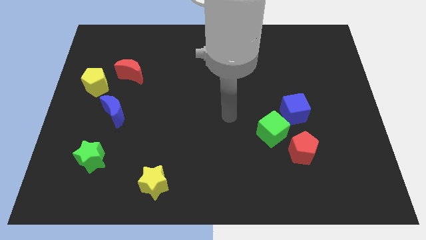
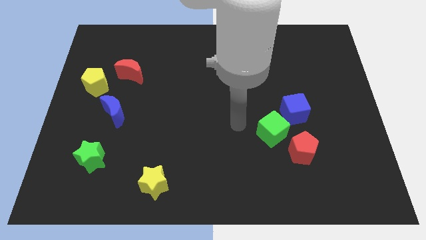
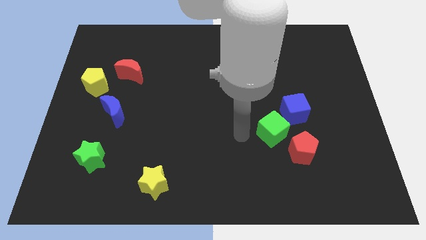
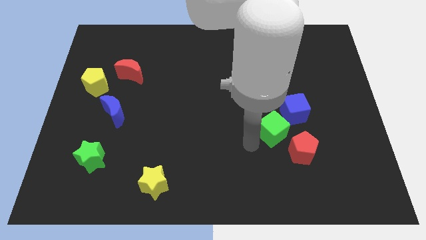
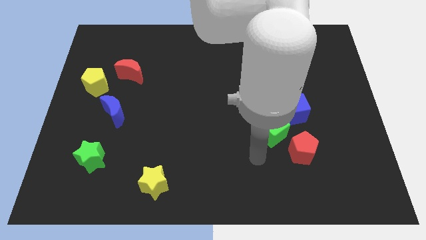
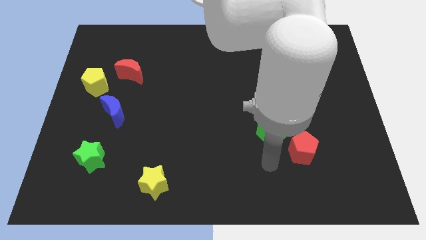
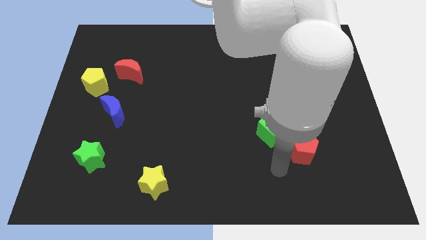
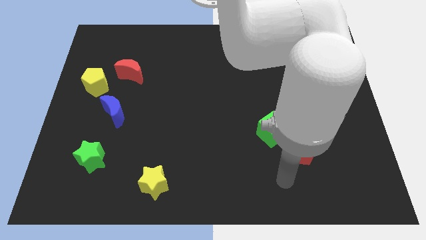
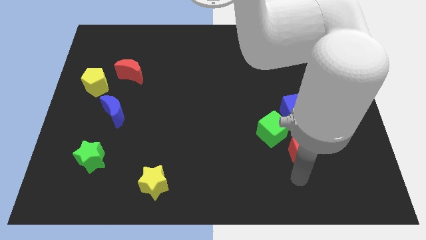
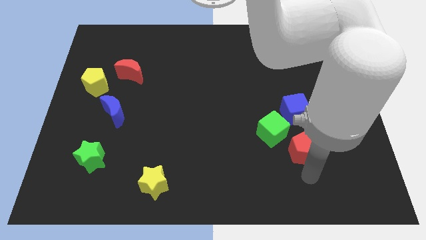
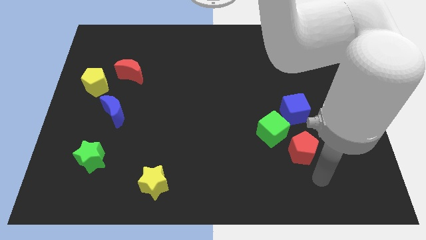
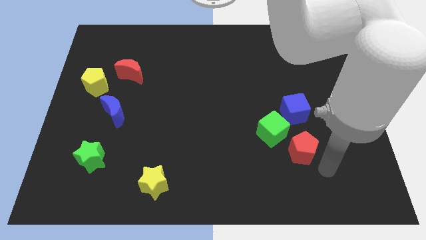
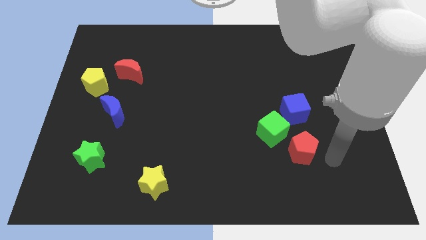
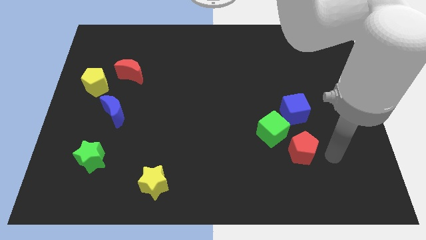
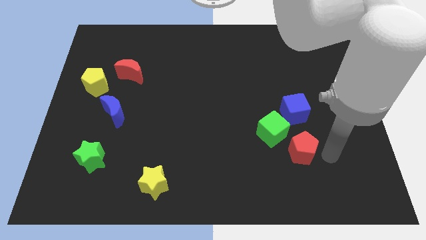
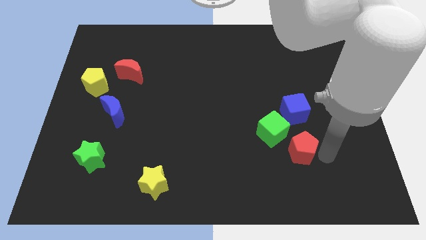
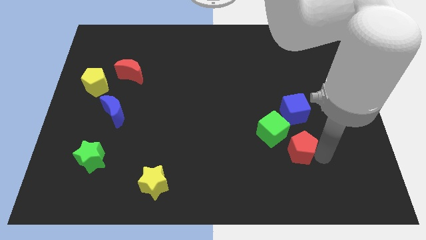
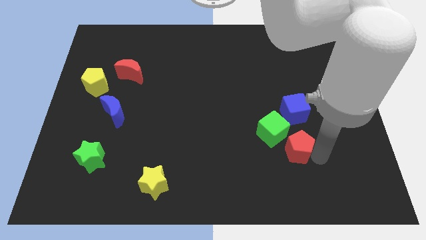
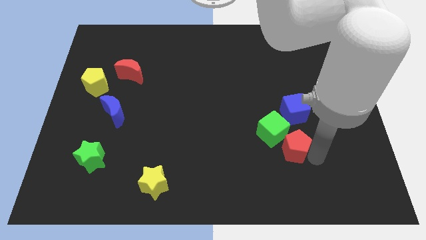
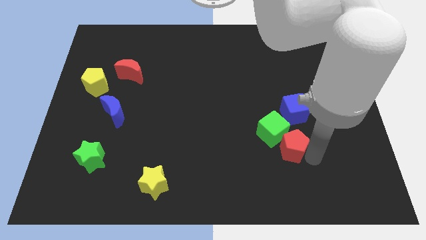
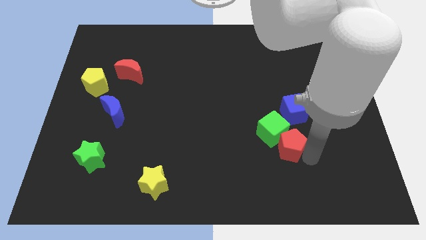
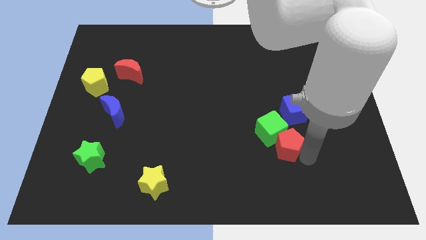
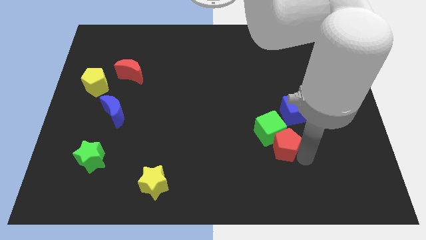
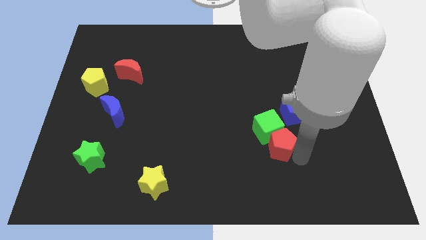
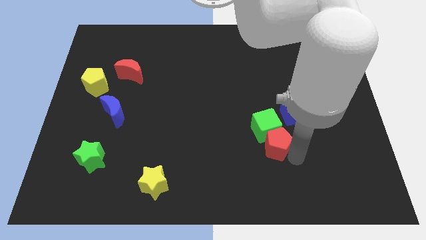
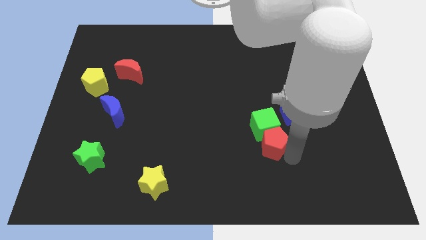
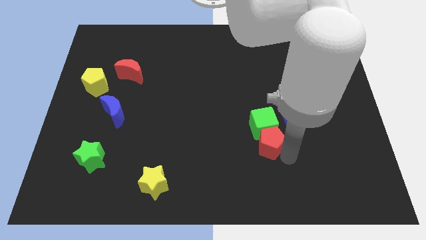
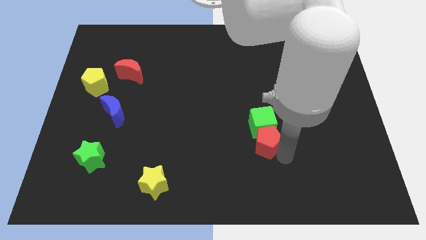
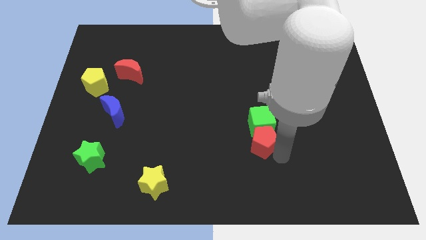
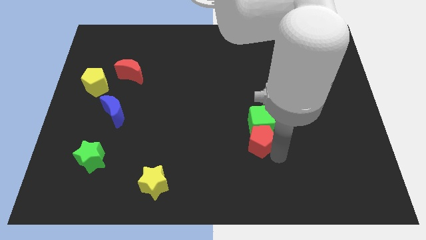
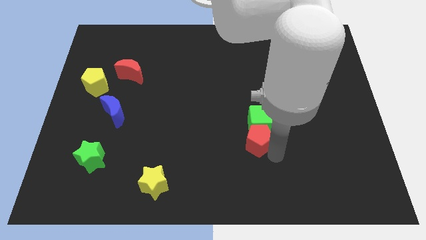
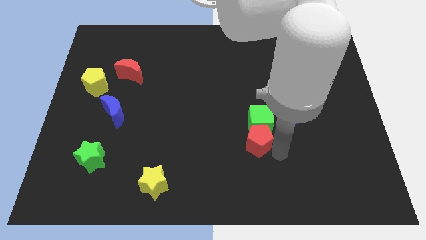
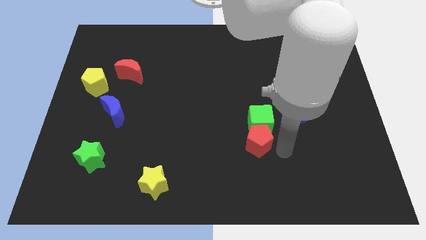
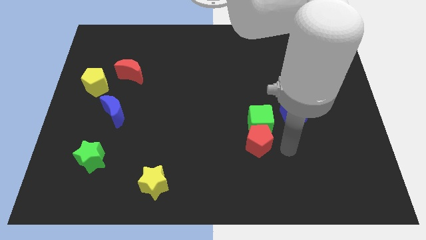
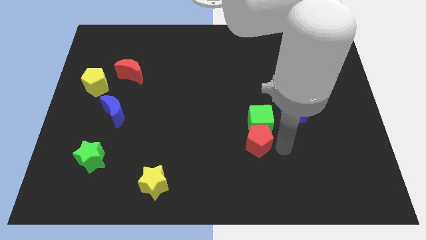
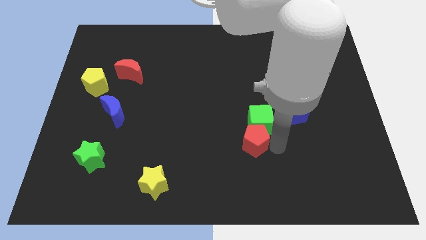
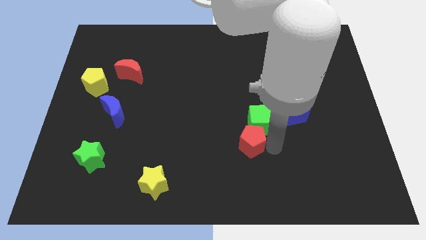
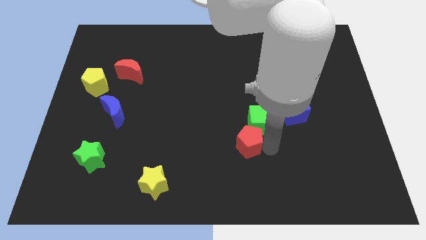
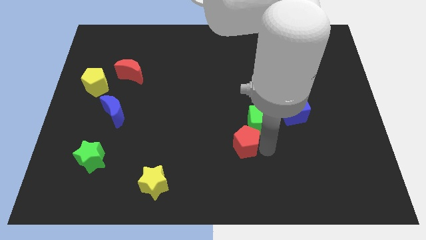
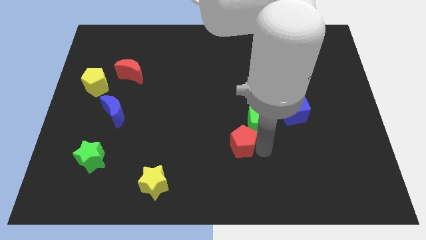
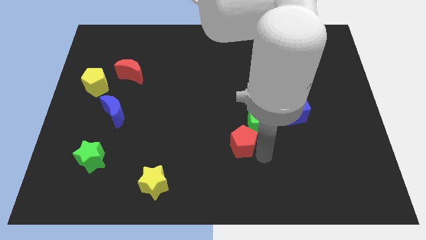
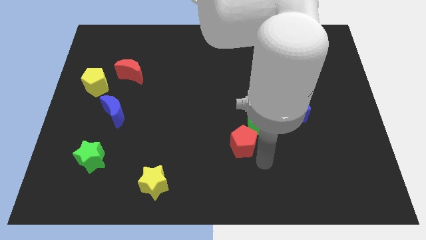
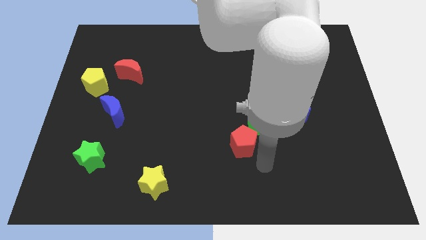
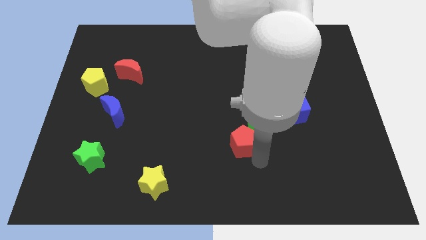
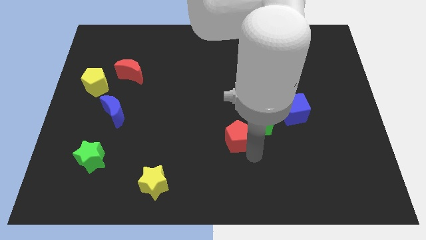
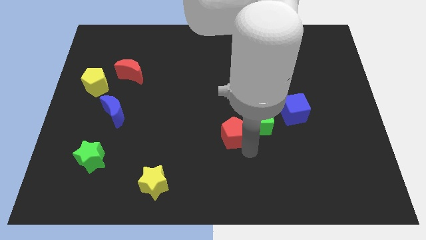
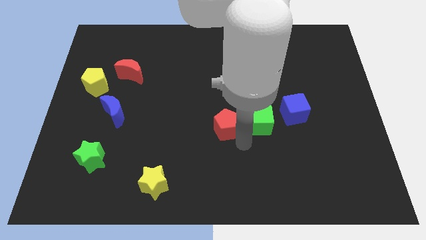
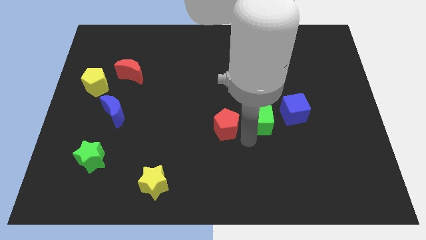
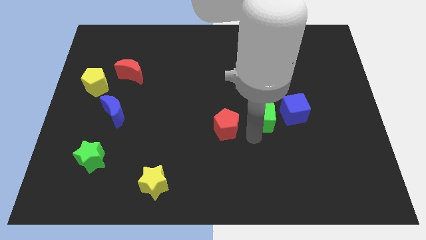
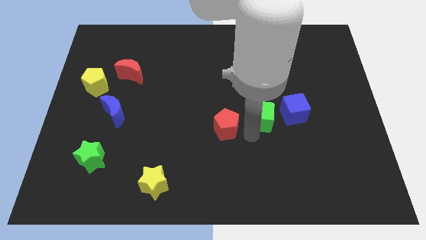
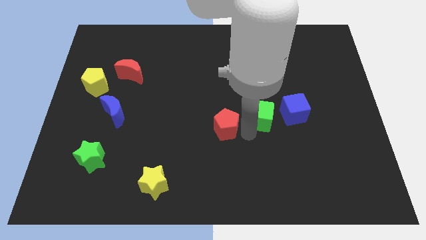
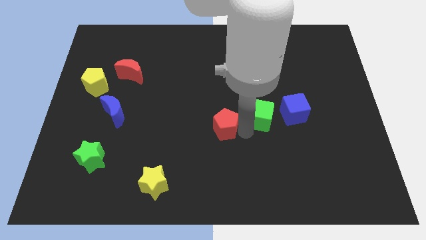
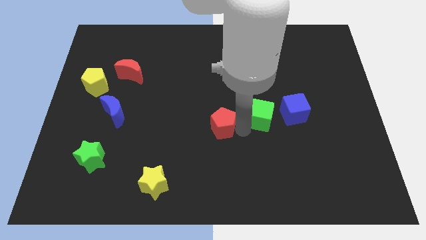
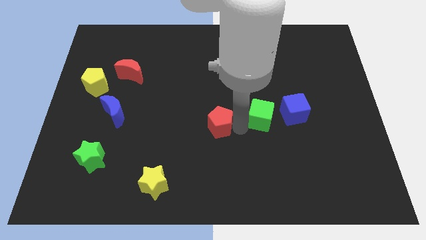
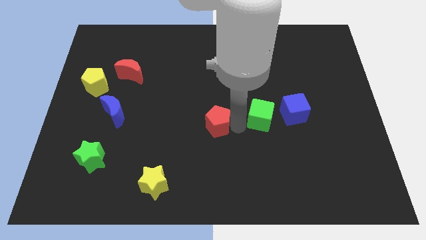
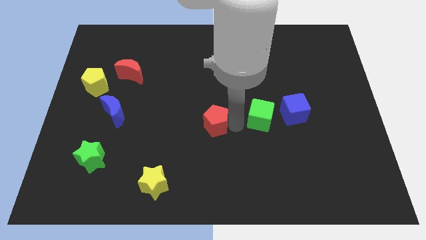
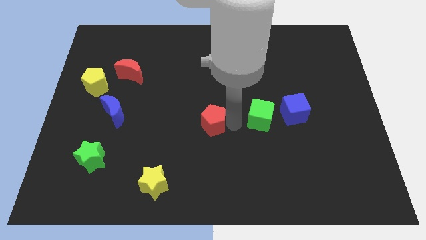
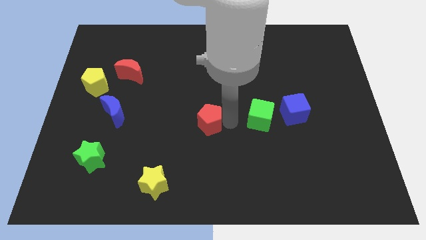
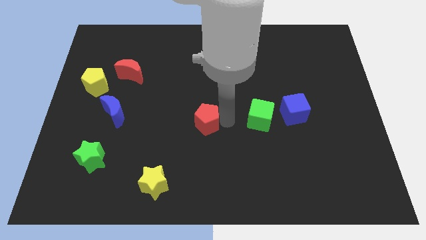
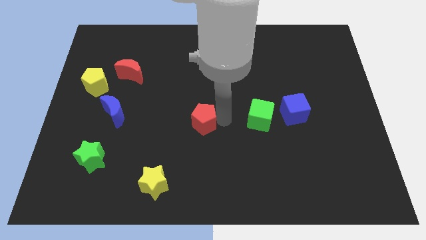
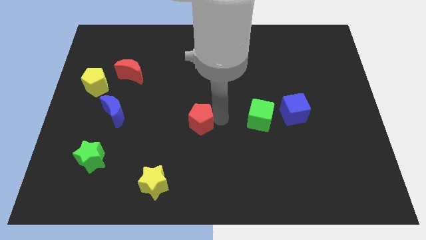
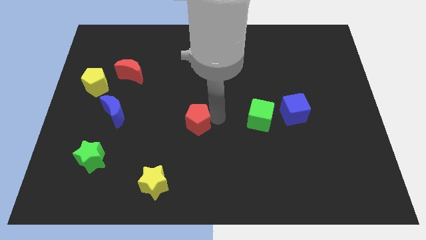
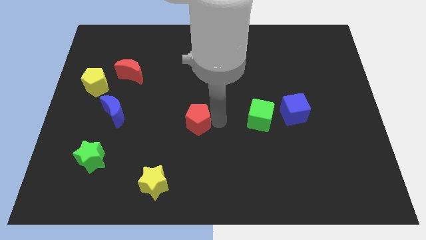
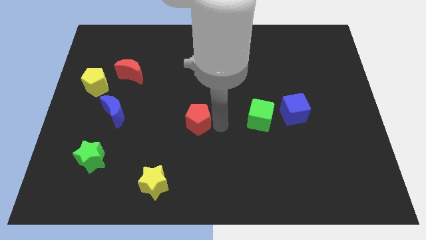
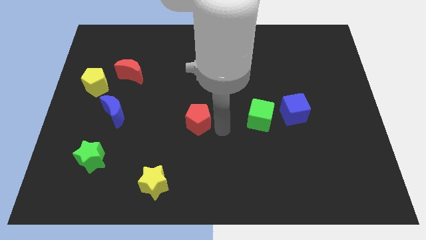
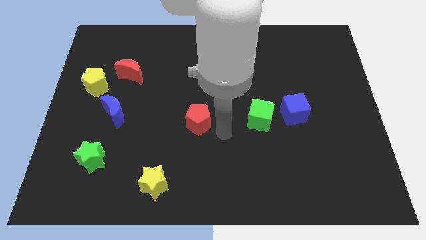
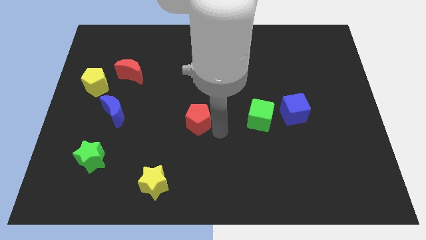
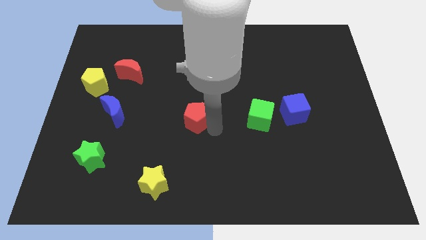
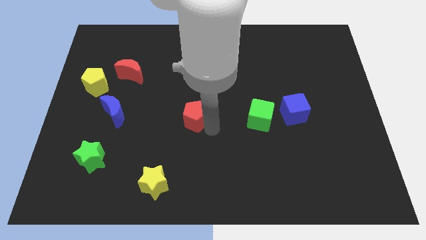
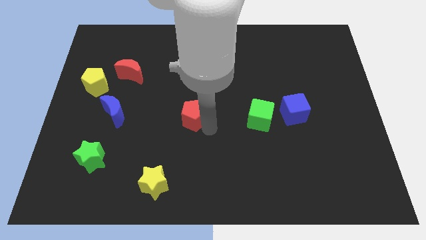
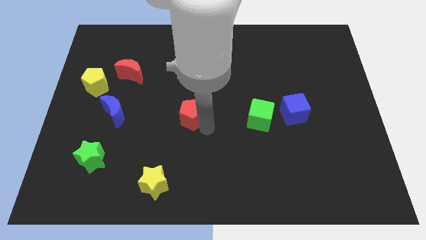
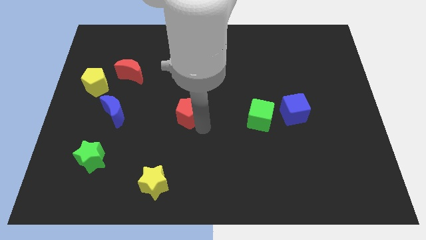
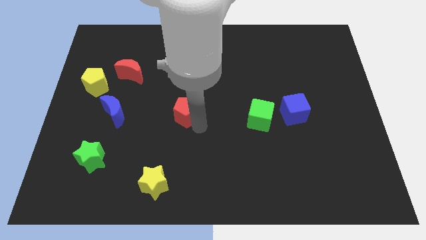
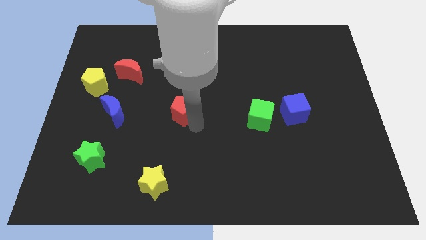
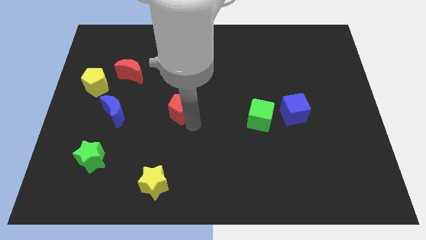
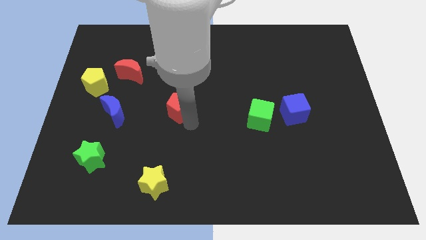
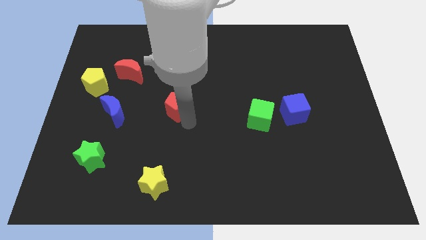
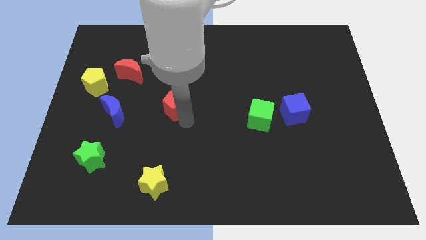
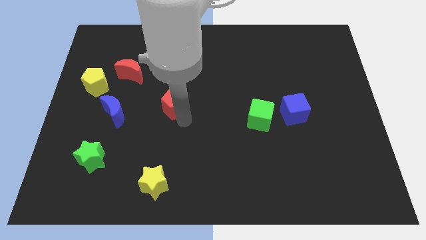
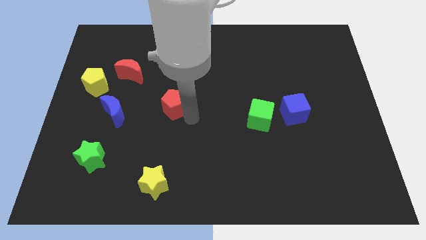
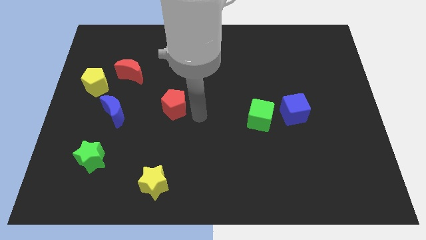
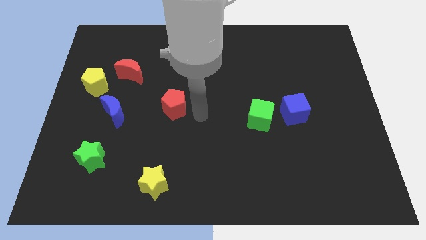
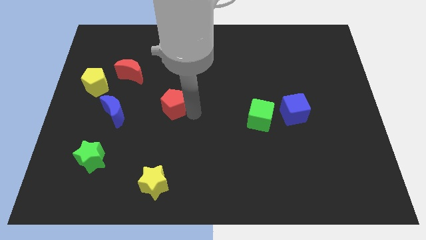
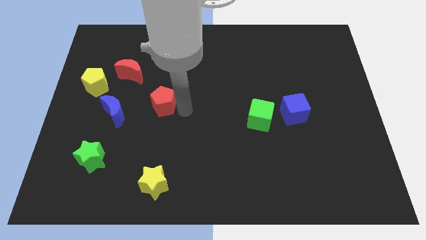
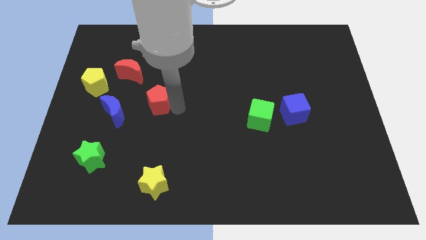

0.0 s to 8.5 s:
move the red pentagon to the top right side of the blue moon
